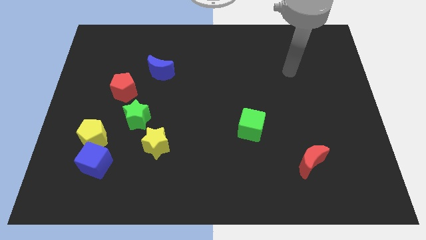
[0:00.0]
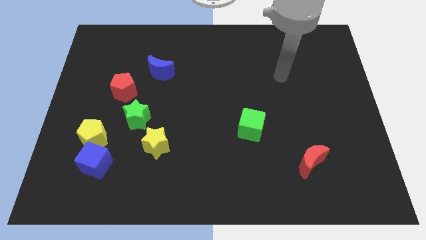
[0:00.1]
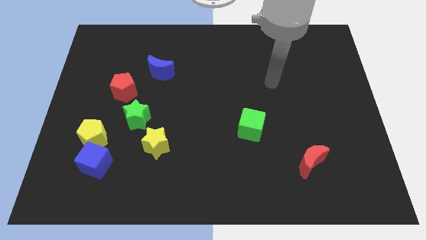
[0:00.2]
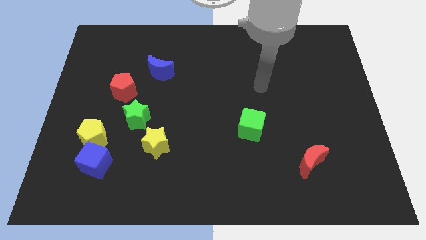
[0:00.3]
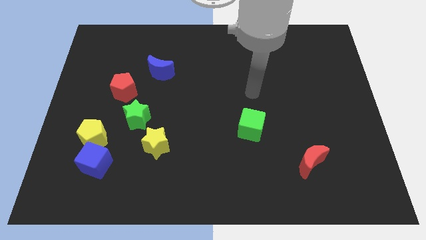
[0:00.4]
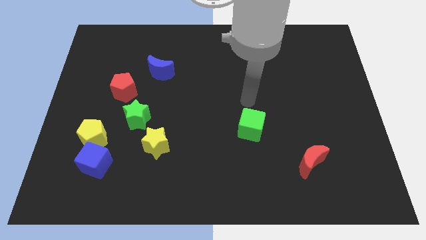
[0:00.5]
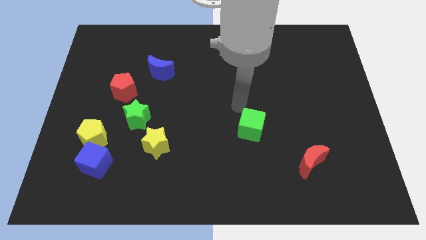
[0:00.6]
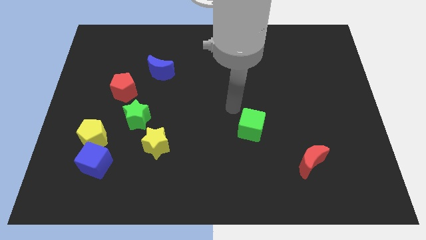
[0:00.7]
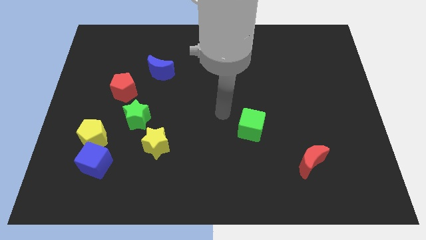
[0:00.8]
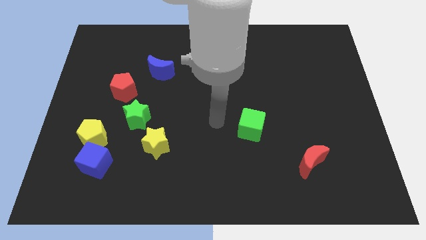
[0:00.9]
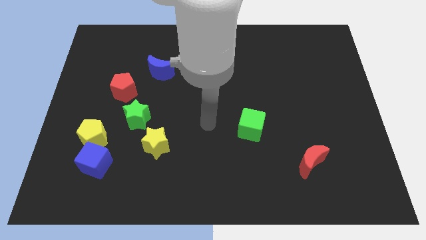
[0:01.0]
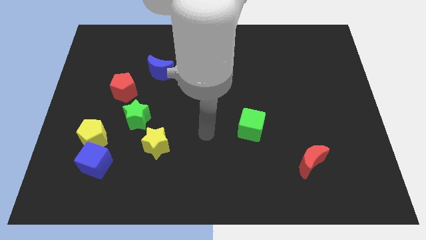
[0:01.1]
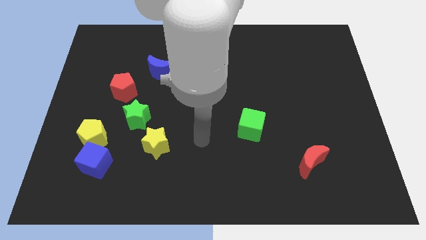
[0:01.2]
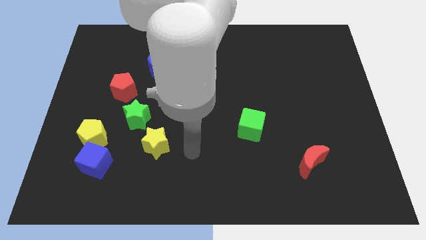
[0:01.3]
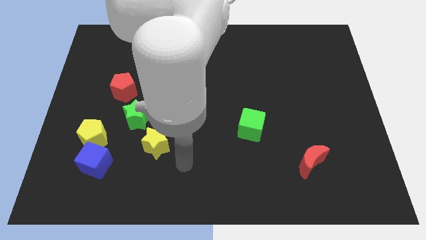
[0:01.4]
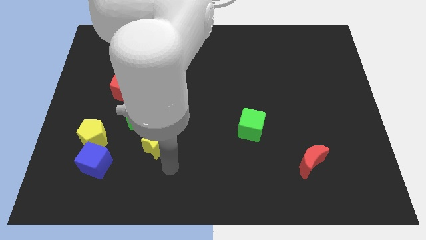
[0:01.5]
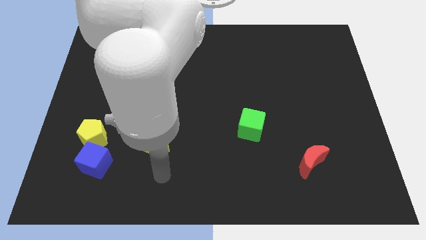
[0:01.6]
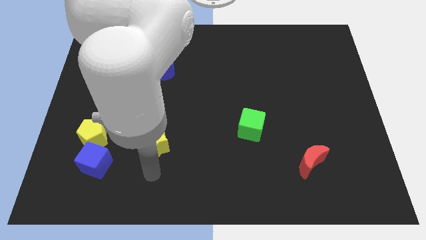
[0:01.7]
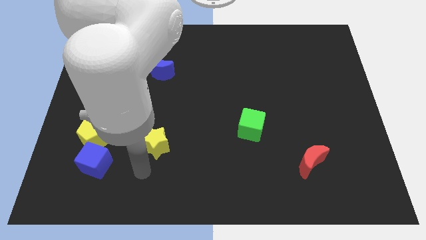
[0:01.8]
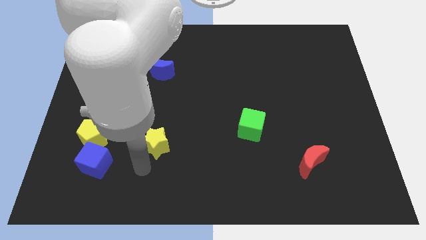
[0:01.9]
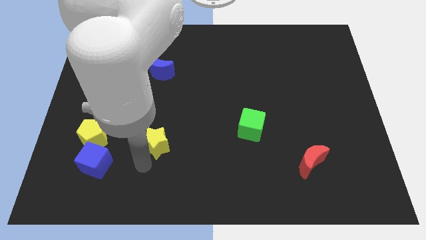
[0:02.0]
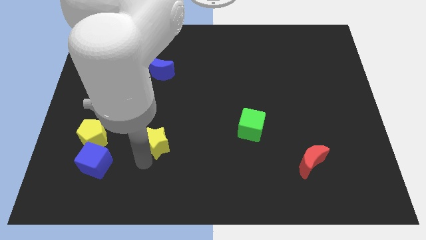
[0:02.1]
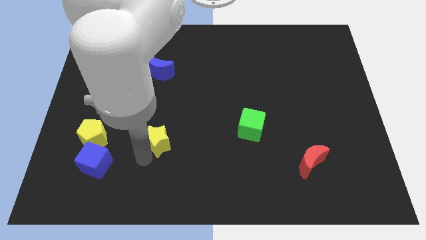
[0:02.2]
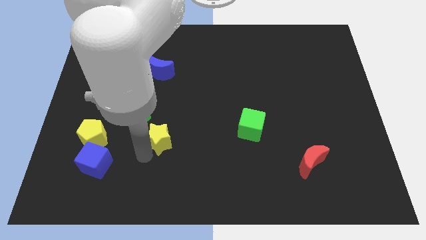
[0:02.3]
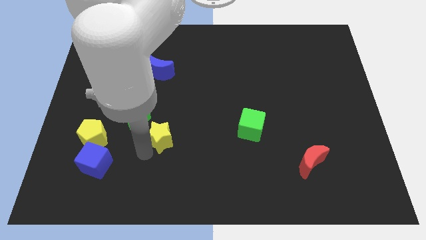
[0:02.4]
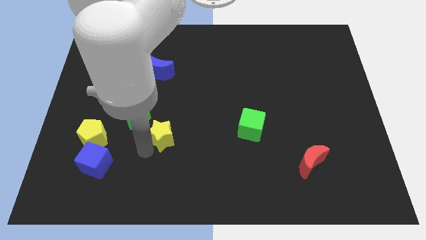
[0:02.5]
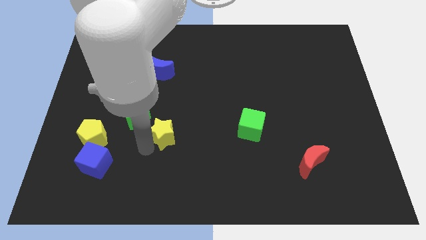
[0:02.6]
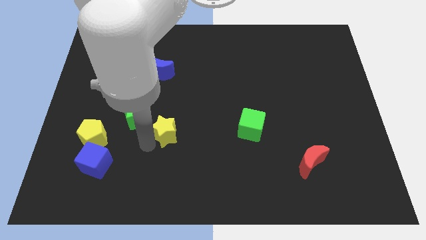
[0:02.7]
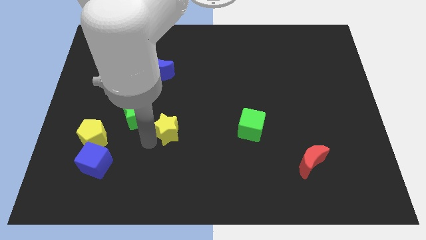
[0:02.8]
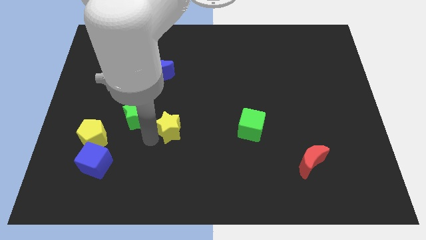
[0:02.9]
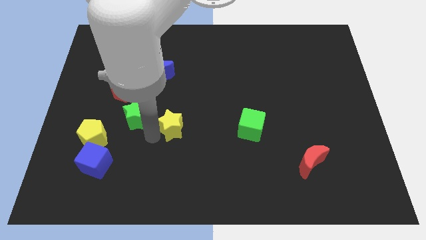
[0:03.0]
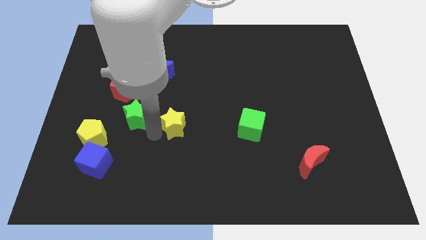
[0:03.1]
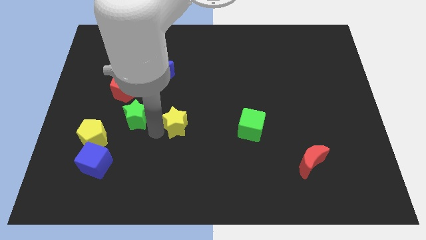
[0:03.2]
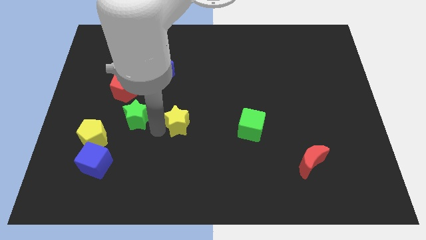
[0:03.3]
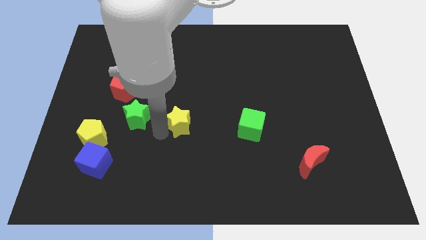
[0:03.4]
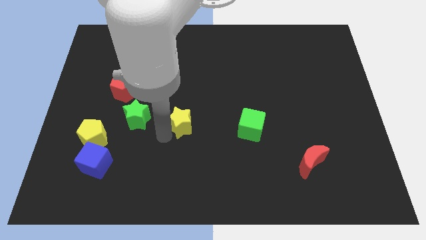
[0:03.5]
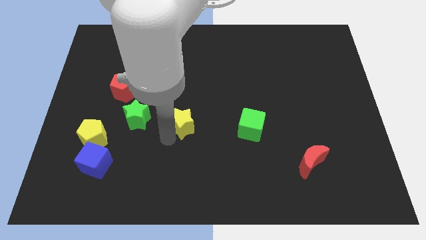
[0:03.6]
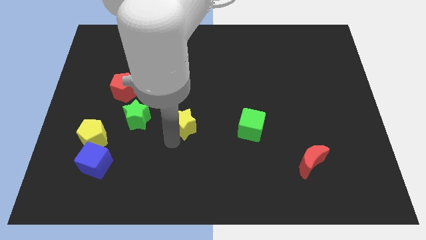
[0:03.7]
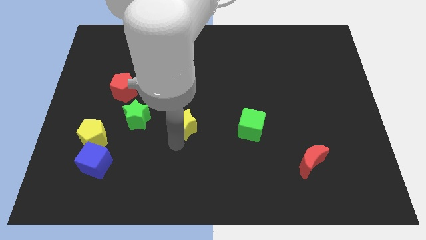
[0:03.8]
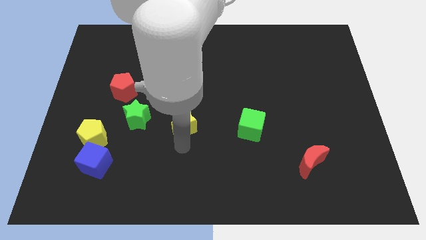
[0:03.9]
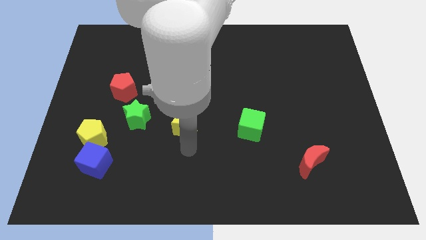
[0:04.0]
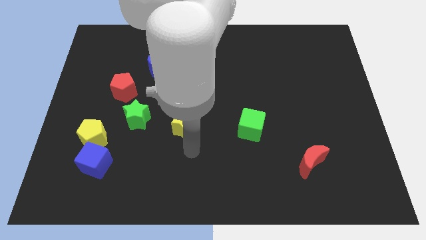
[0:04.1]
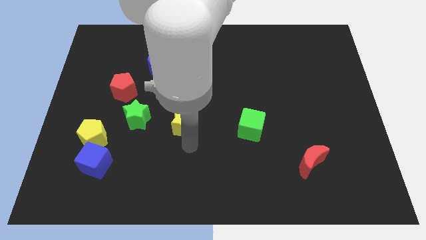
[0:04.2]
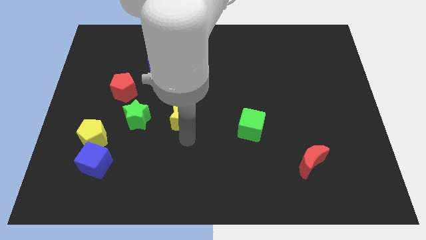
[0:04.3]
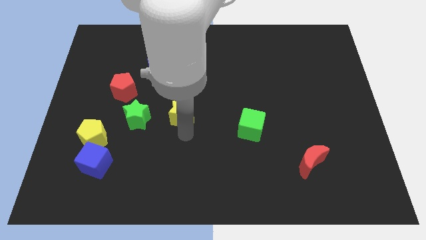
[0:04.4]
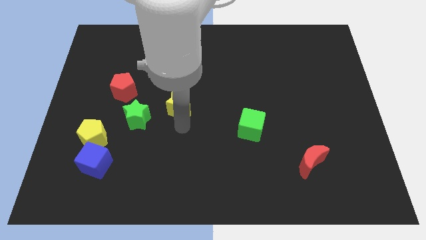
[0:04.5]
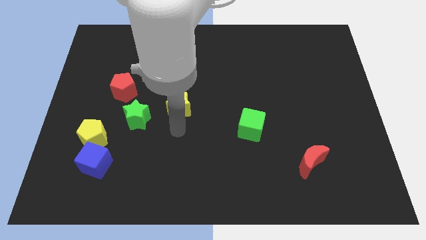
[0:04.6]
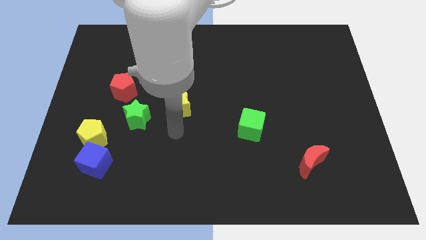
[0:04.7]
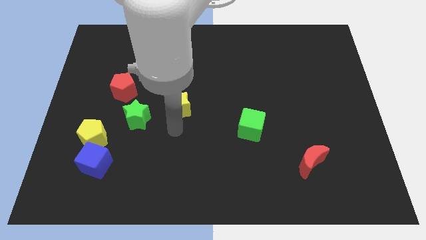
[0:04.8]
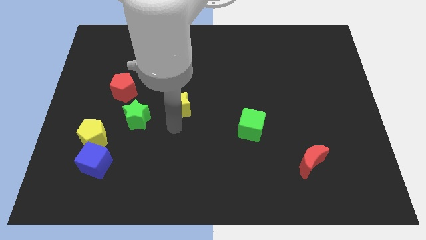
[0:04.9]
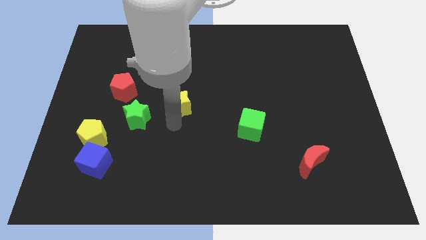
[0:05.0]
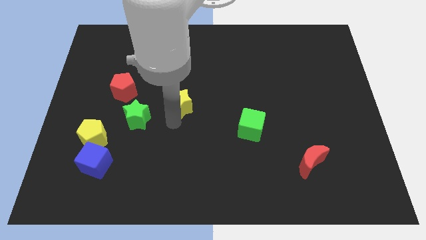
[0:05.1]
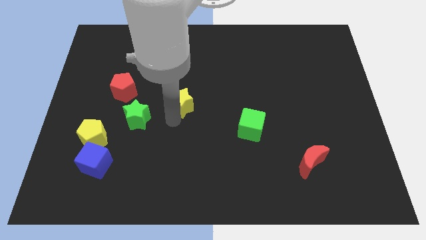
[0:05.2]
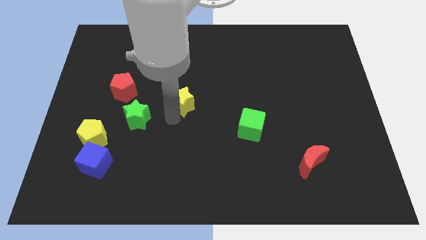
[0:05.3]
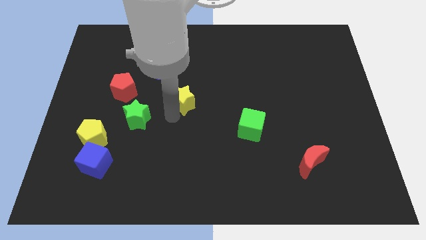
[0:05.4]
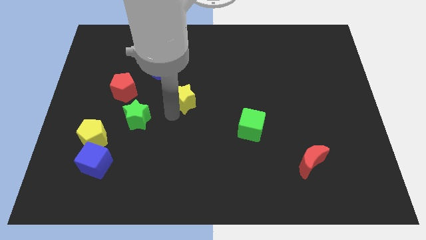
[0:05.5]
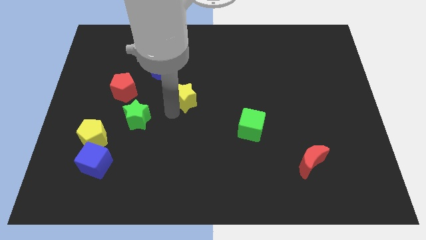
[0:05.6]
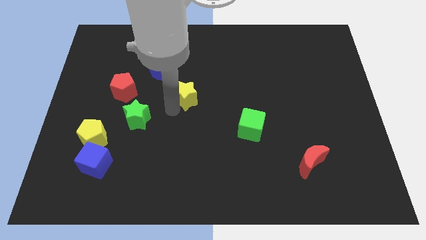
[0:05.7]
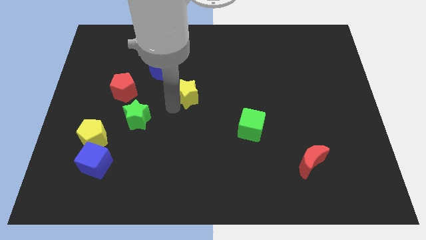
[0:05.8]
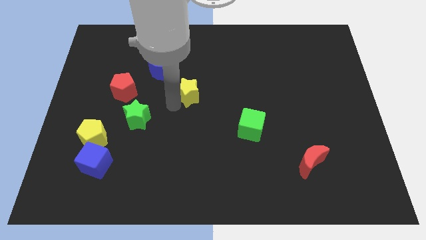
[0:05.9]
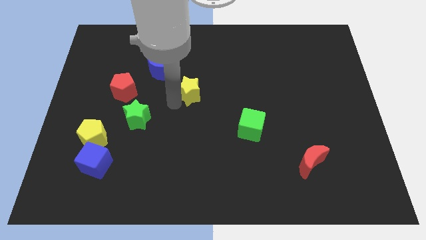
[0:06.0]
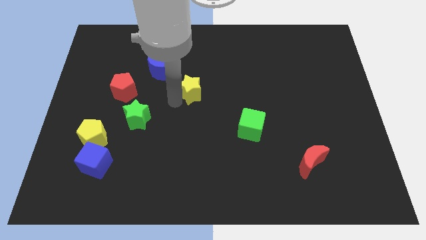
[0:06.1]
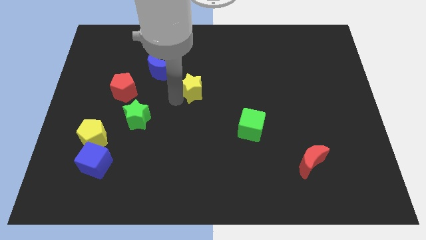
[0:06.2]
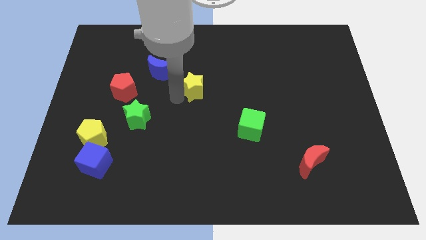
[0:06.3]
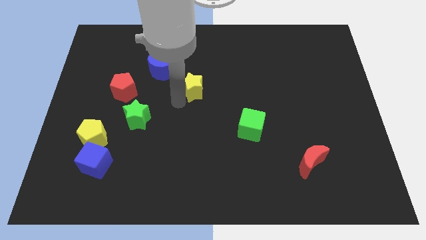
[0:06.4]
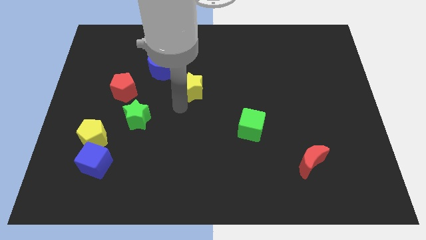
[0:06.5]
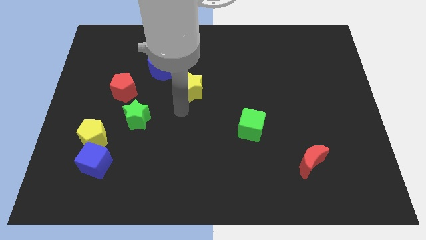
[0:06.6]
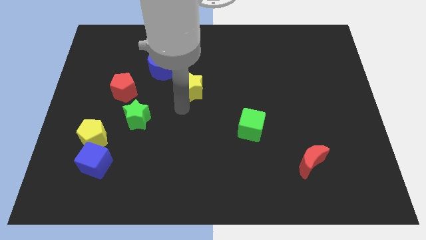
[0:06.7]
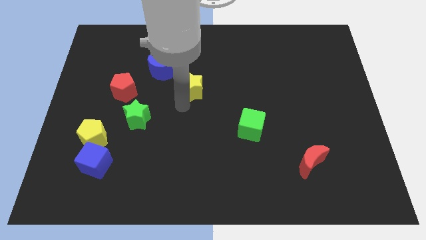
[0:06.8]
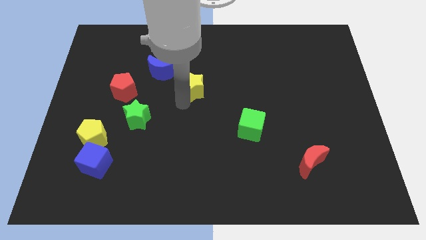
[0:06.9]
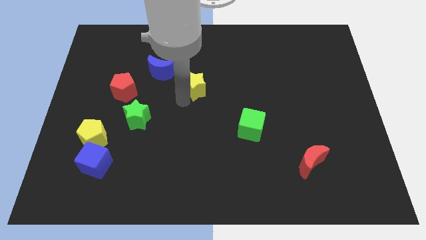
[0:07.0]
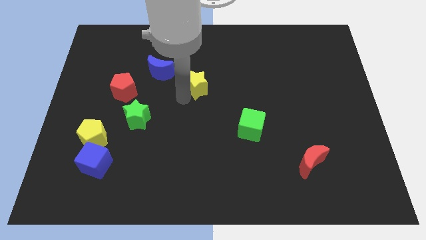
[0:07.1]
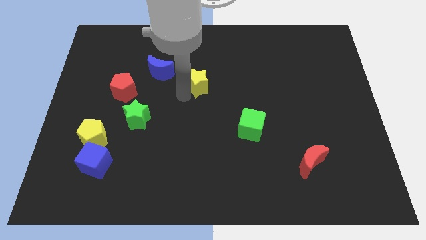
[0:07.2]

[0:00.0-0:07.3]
put the yellow star to the right of the blue moon
